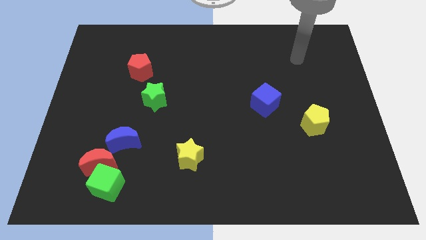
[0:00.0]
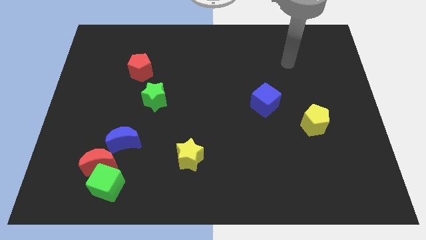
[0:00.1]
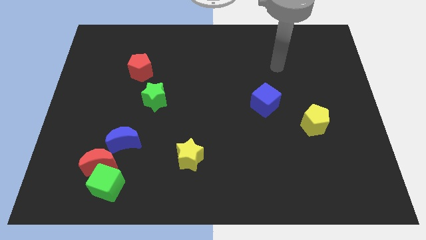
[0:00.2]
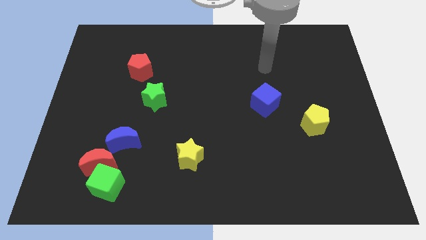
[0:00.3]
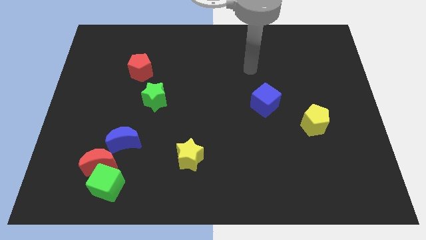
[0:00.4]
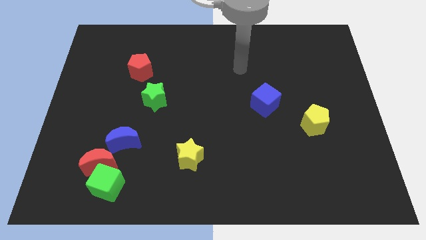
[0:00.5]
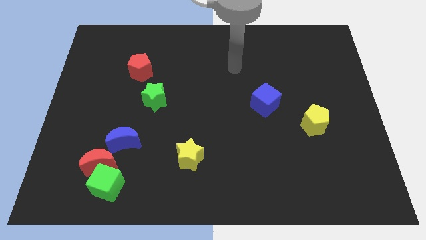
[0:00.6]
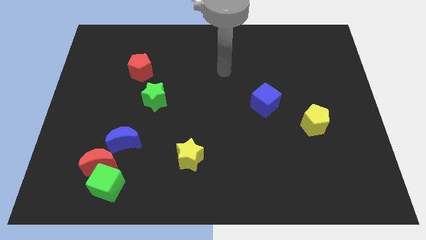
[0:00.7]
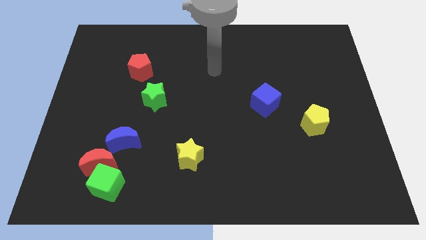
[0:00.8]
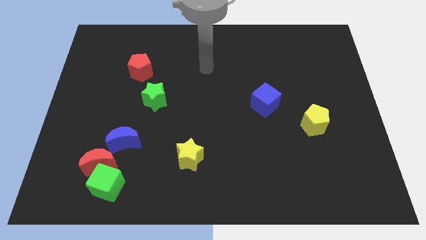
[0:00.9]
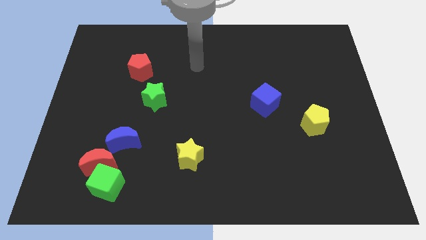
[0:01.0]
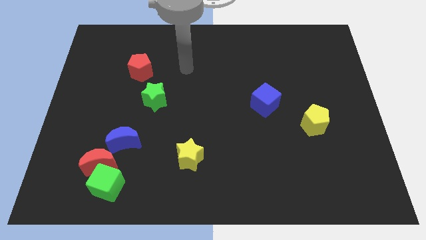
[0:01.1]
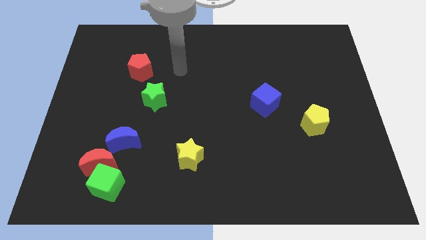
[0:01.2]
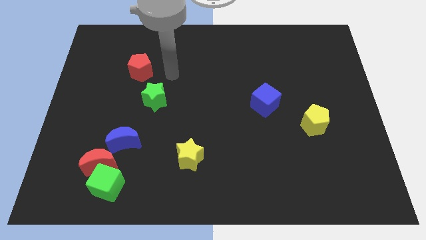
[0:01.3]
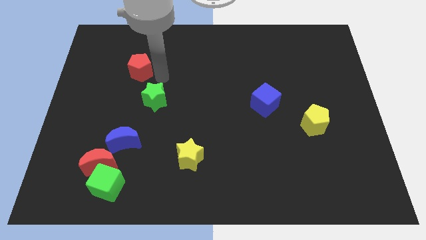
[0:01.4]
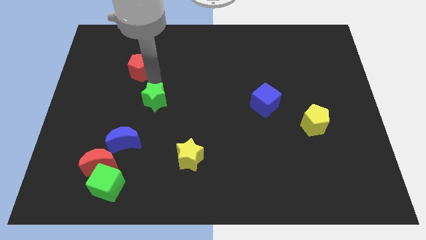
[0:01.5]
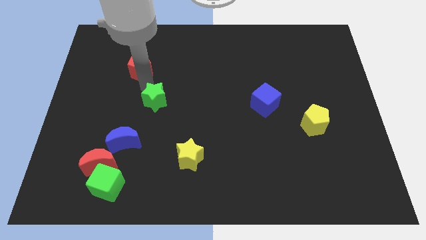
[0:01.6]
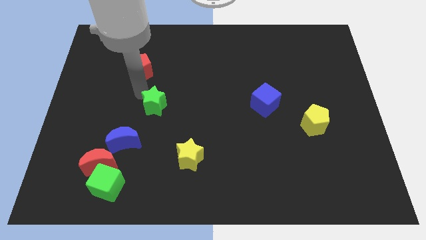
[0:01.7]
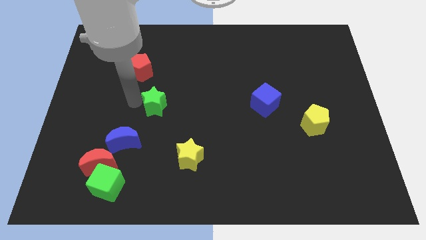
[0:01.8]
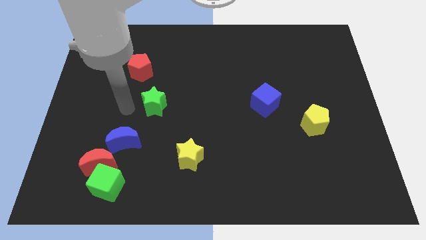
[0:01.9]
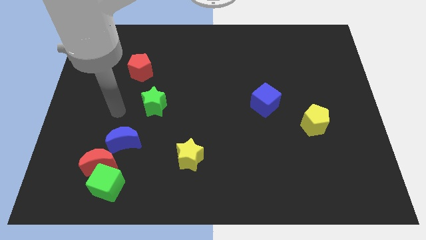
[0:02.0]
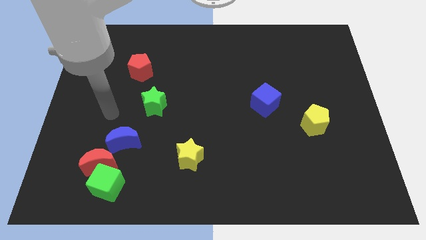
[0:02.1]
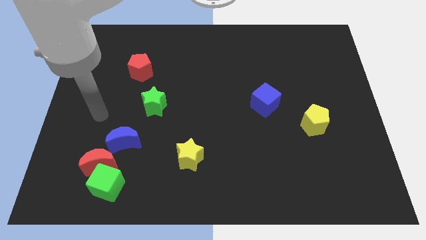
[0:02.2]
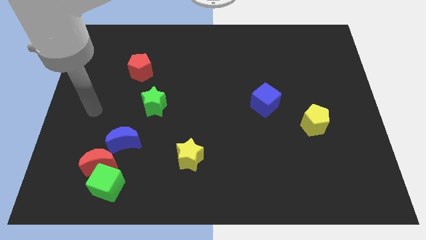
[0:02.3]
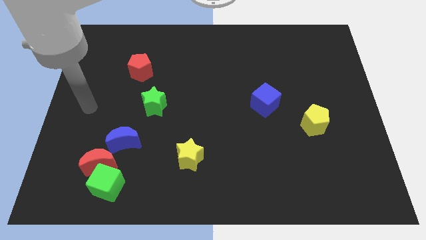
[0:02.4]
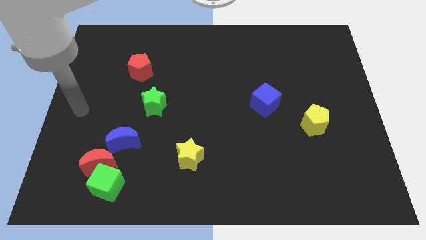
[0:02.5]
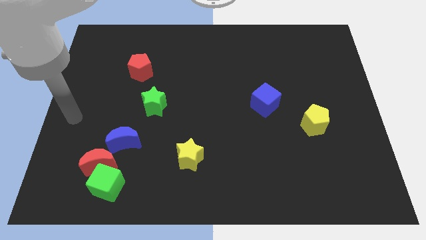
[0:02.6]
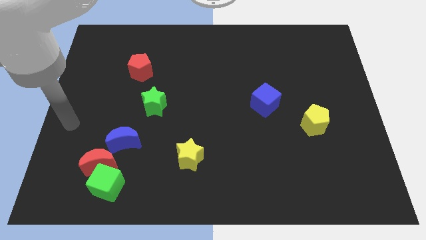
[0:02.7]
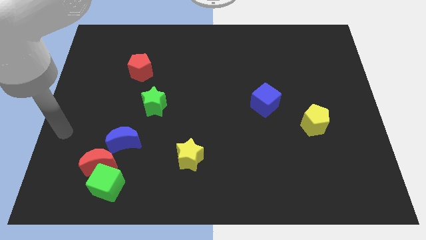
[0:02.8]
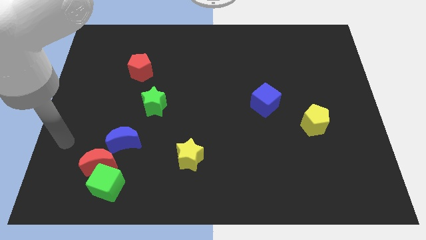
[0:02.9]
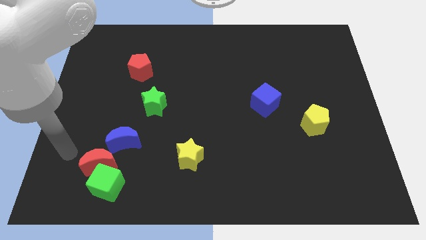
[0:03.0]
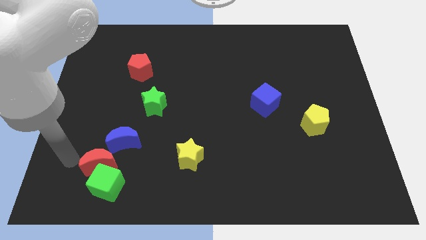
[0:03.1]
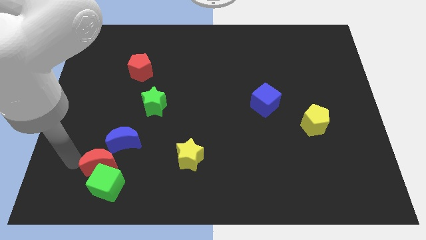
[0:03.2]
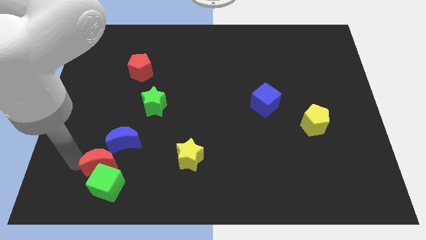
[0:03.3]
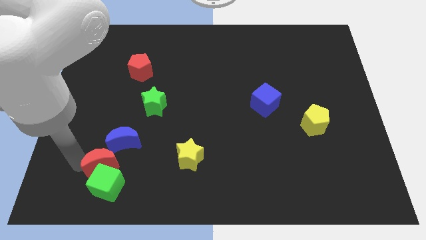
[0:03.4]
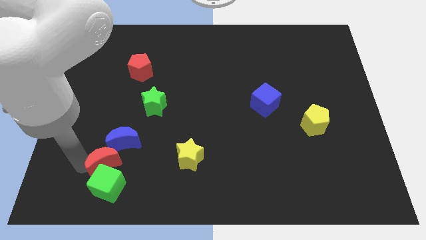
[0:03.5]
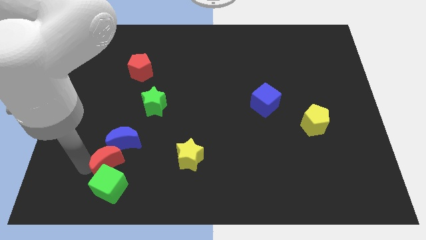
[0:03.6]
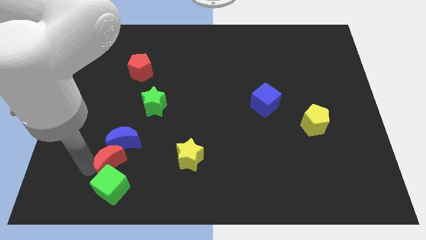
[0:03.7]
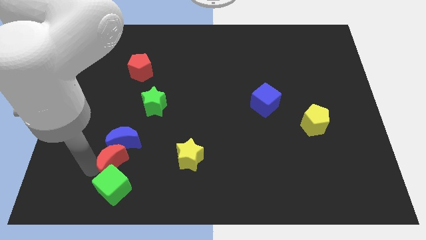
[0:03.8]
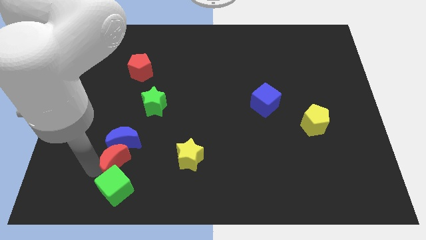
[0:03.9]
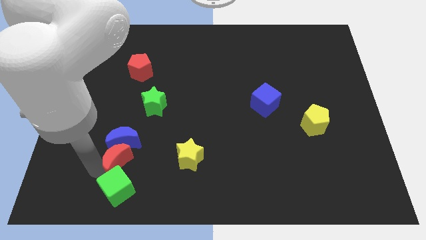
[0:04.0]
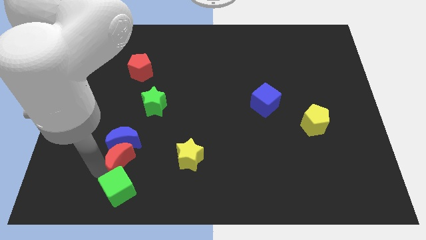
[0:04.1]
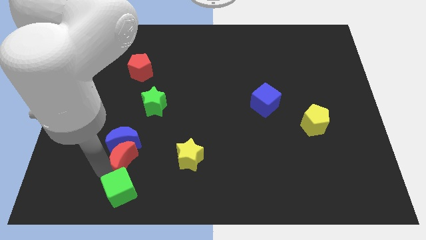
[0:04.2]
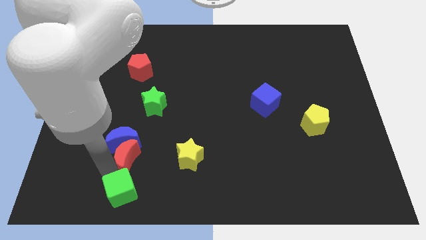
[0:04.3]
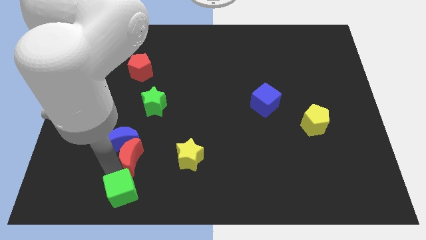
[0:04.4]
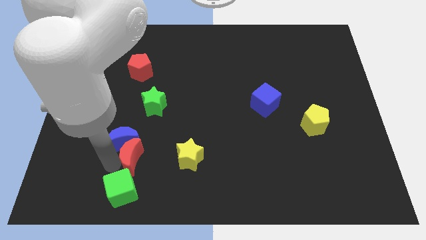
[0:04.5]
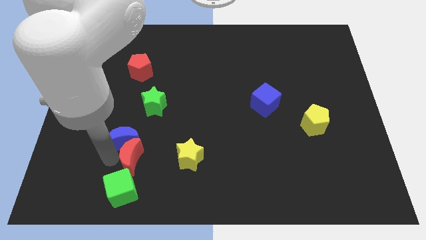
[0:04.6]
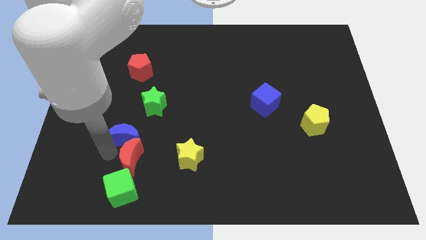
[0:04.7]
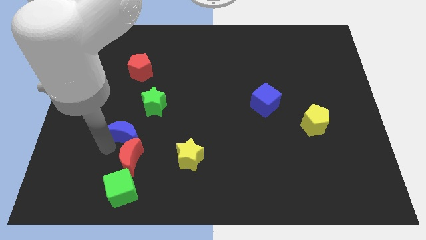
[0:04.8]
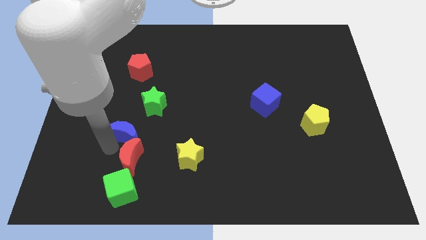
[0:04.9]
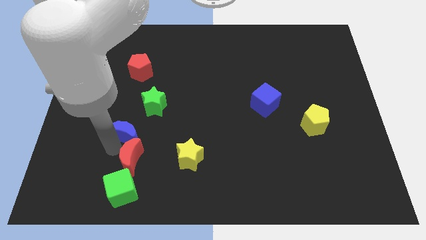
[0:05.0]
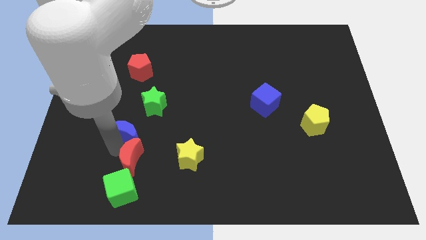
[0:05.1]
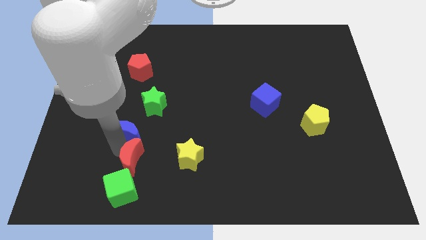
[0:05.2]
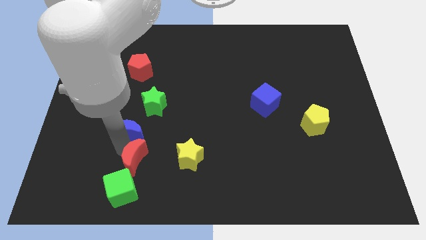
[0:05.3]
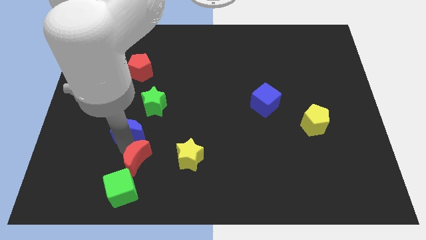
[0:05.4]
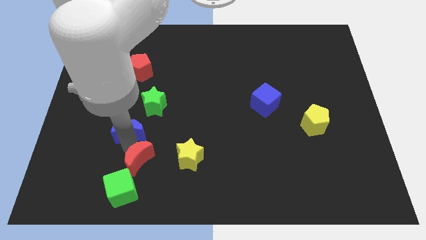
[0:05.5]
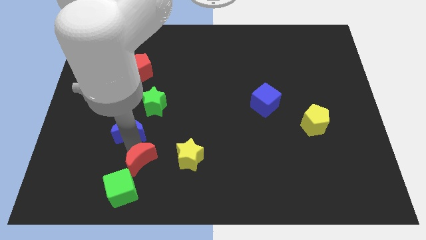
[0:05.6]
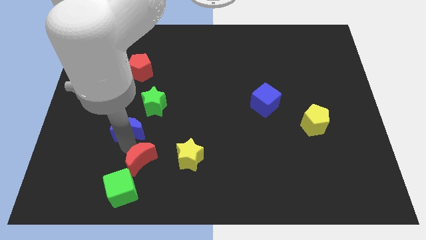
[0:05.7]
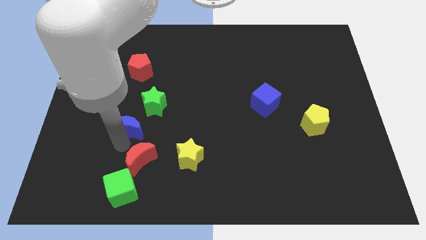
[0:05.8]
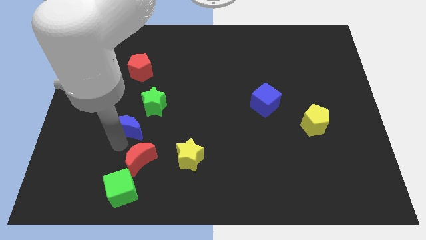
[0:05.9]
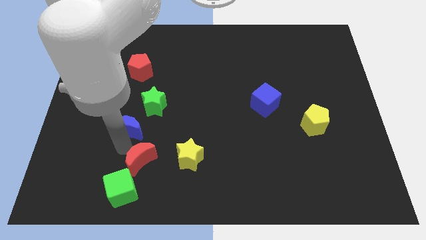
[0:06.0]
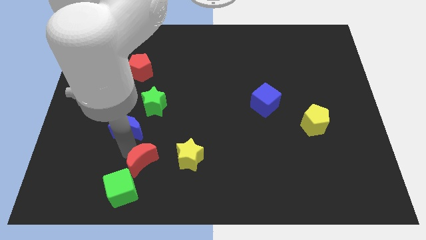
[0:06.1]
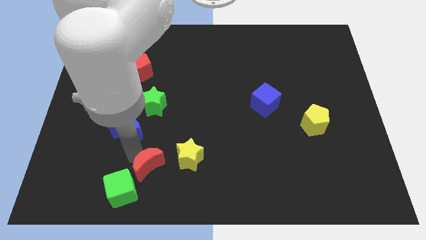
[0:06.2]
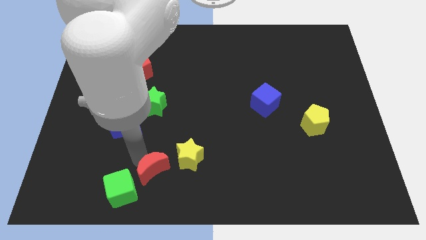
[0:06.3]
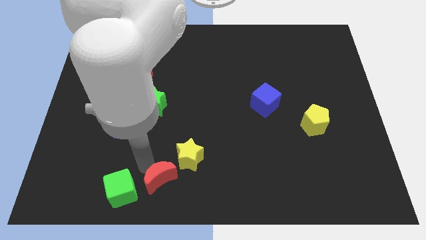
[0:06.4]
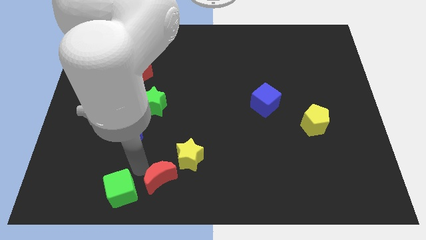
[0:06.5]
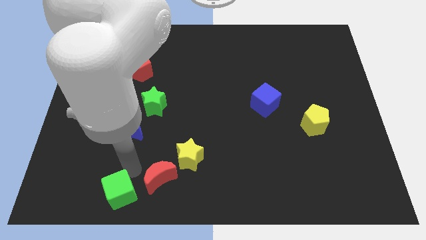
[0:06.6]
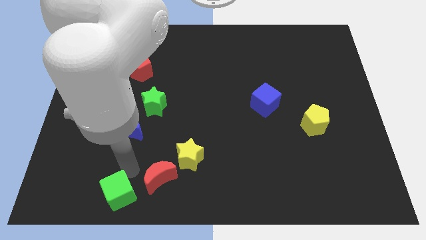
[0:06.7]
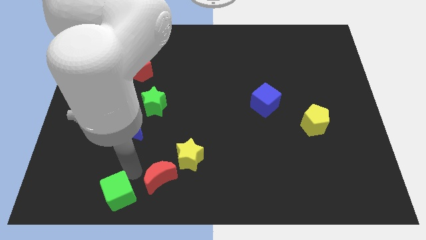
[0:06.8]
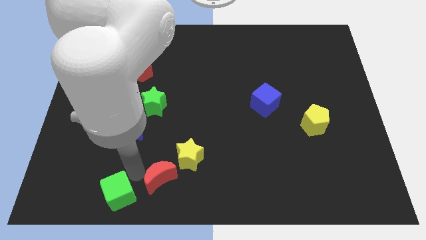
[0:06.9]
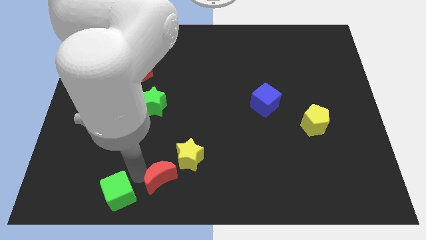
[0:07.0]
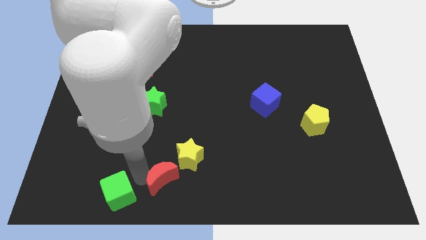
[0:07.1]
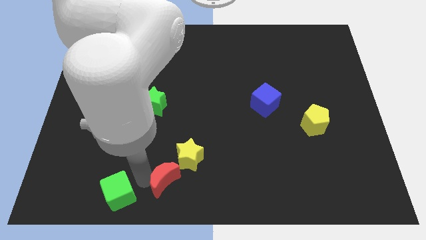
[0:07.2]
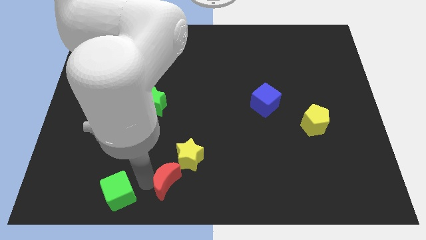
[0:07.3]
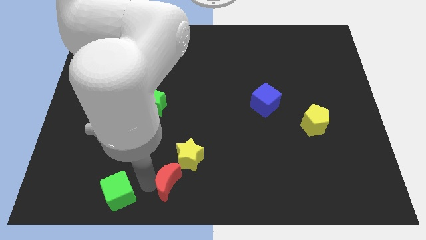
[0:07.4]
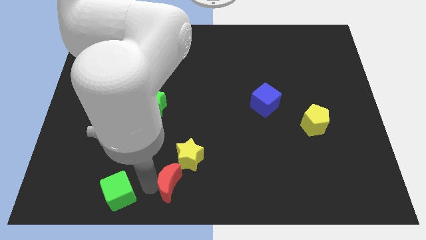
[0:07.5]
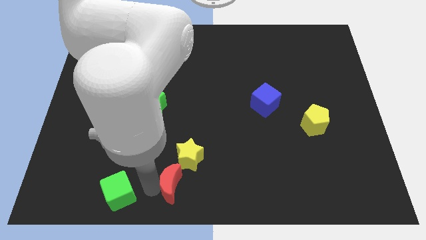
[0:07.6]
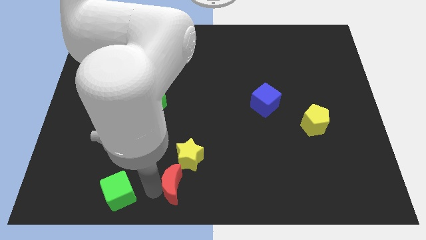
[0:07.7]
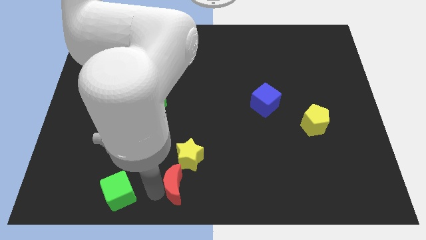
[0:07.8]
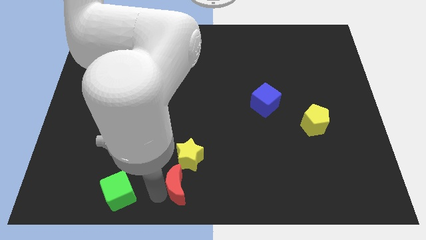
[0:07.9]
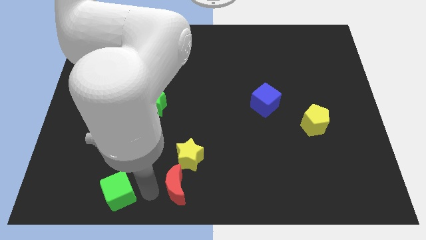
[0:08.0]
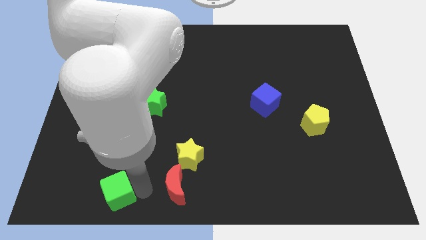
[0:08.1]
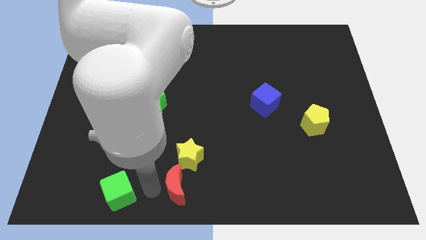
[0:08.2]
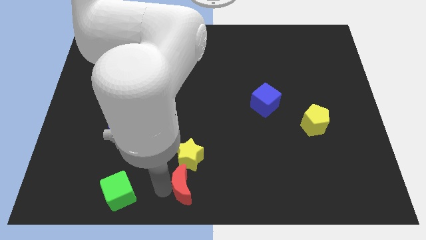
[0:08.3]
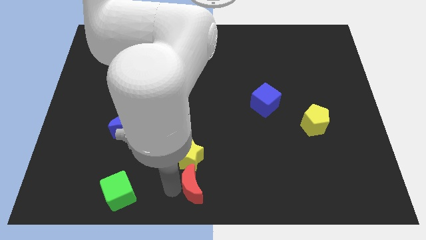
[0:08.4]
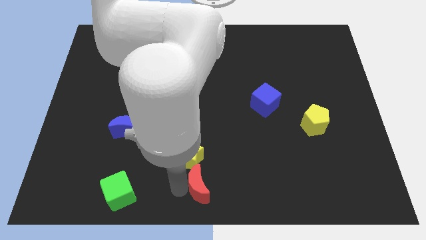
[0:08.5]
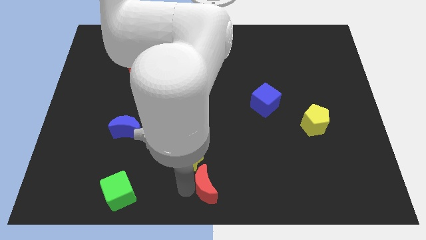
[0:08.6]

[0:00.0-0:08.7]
slide the red moon right
